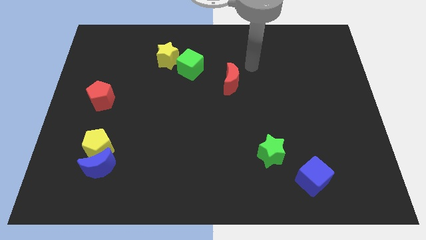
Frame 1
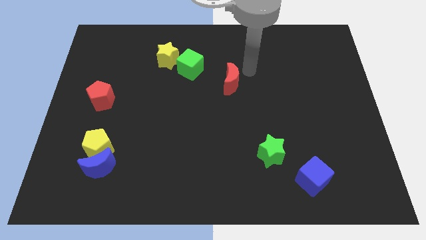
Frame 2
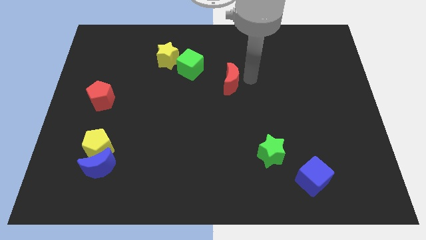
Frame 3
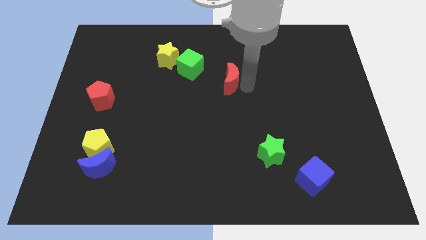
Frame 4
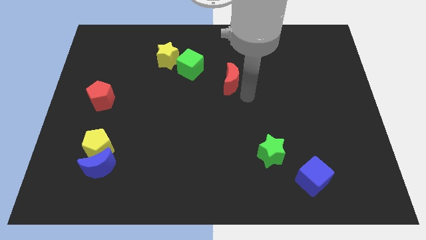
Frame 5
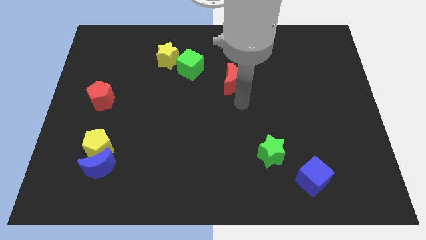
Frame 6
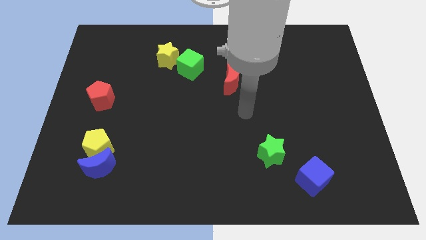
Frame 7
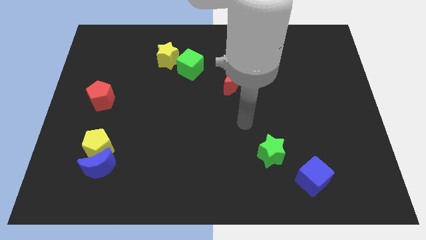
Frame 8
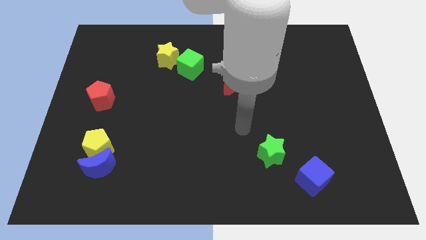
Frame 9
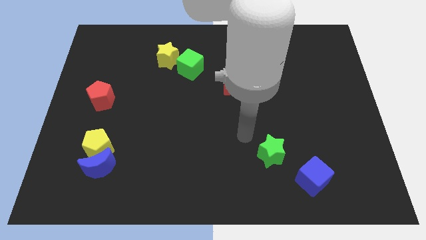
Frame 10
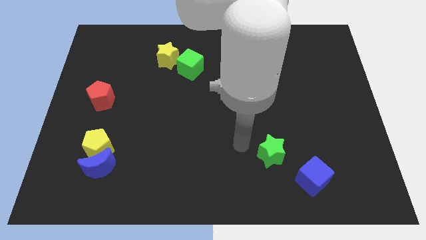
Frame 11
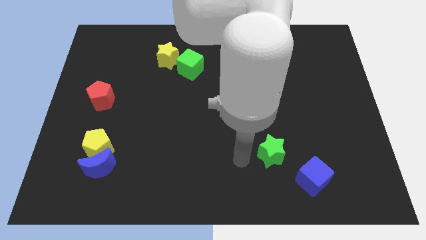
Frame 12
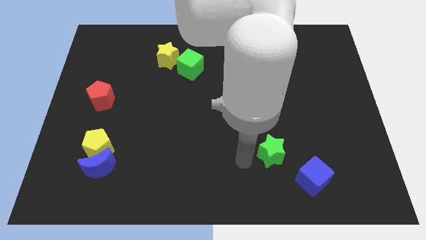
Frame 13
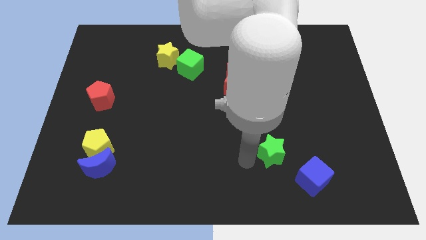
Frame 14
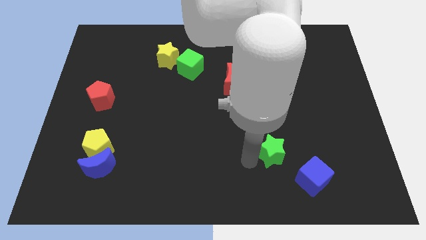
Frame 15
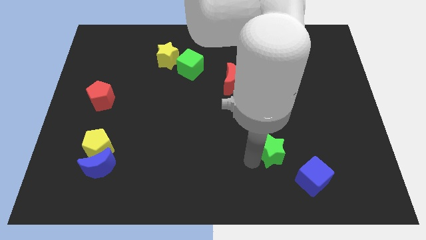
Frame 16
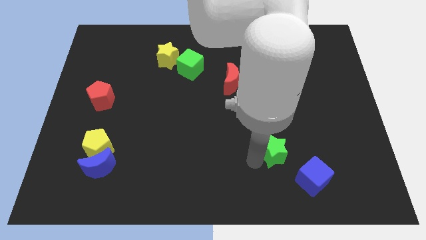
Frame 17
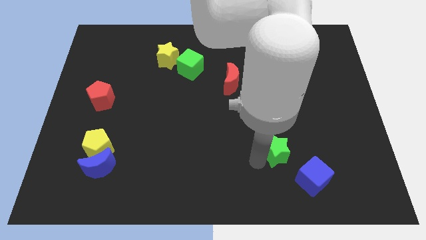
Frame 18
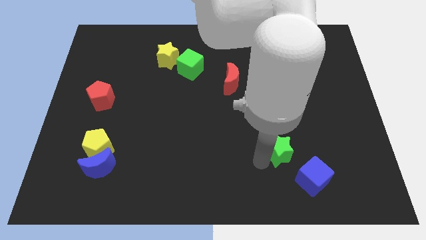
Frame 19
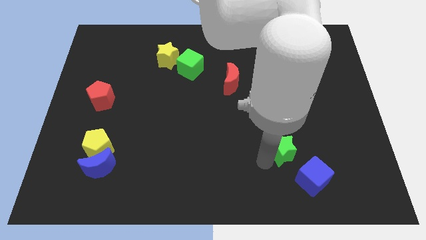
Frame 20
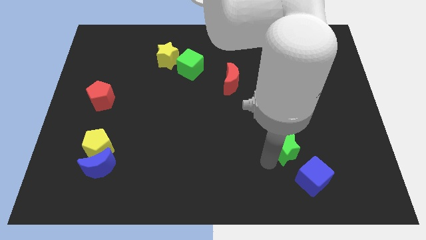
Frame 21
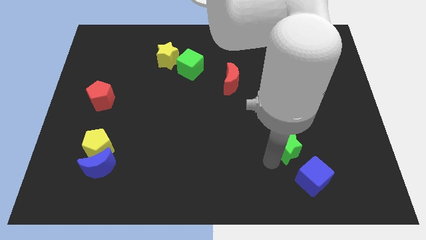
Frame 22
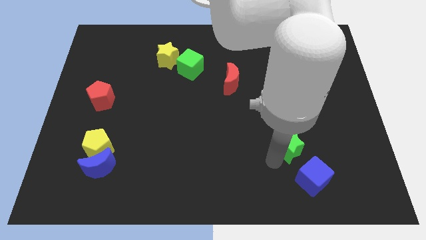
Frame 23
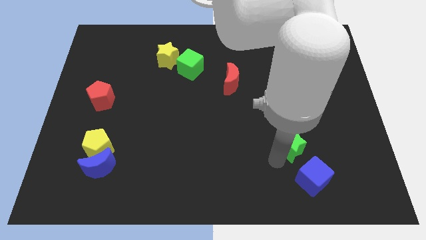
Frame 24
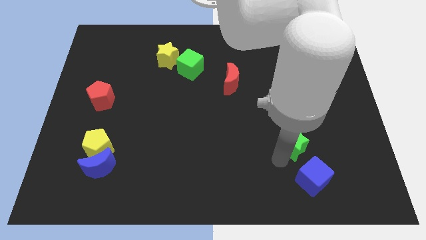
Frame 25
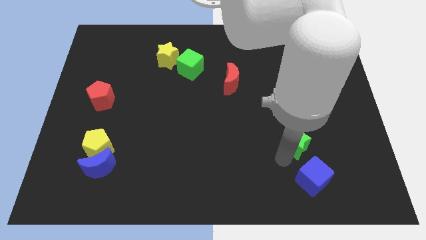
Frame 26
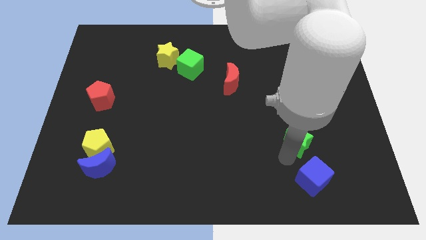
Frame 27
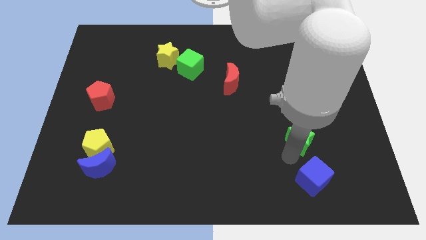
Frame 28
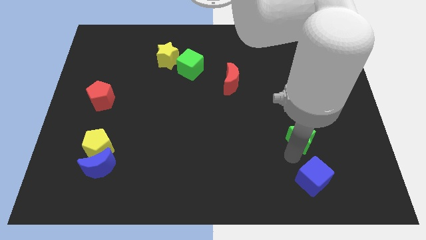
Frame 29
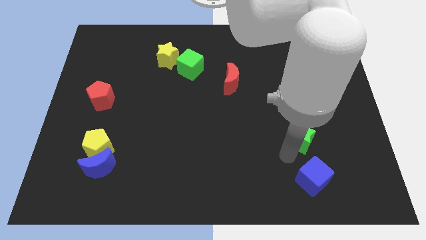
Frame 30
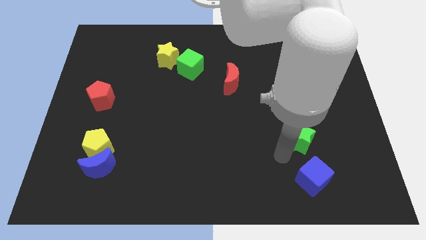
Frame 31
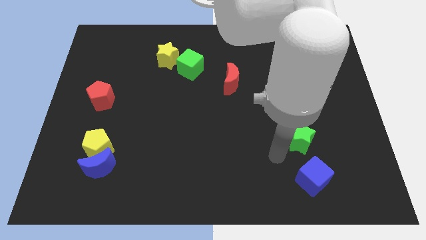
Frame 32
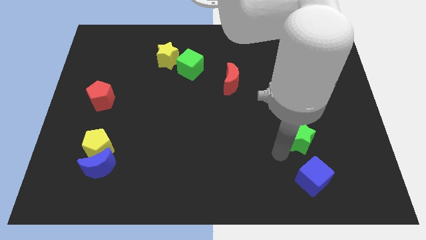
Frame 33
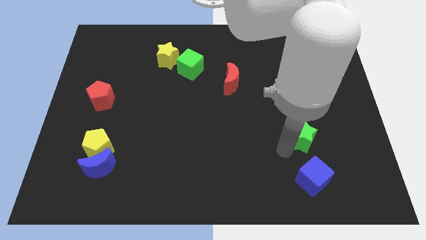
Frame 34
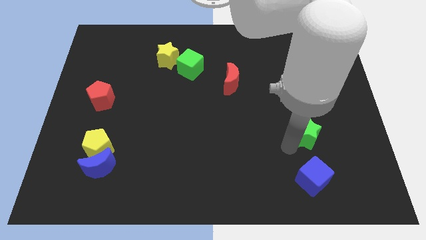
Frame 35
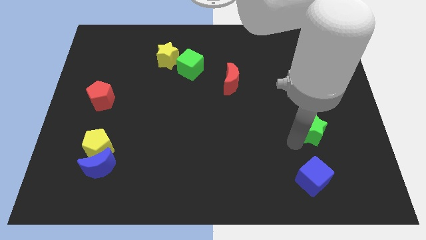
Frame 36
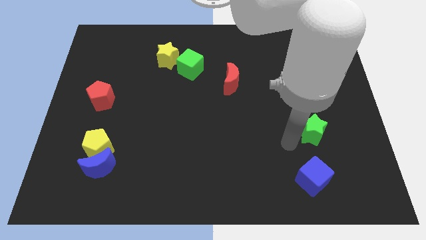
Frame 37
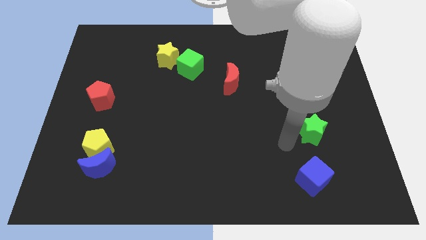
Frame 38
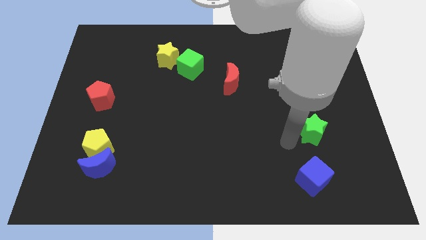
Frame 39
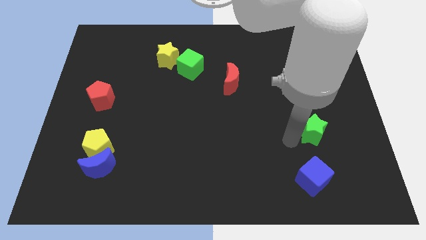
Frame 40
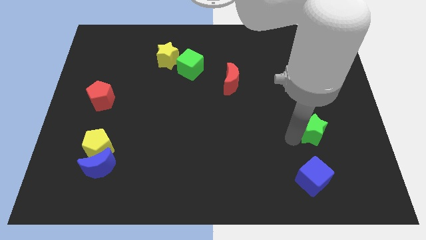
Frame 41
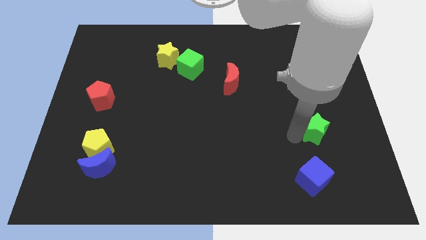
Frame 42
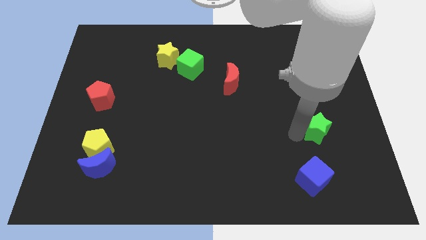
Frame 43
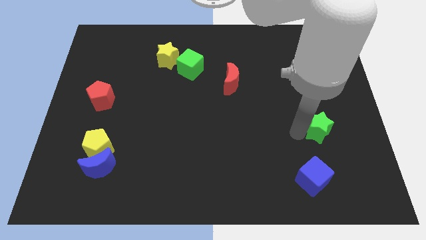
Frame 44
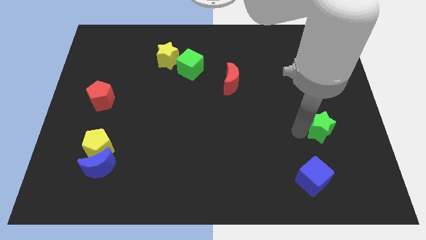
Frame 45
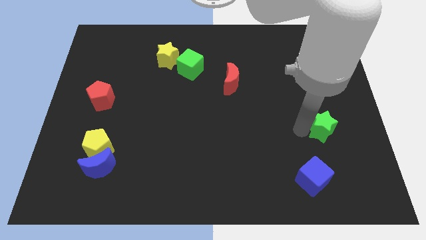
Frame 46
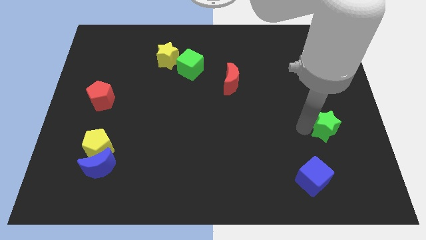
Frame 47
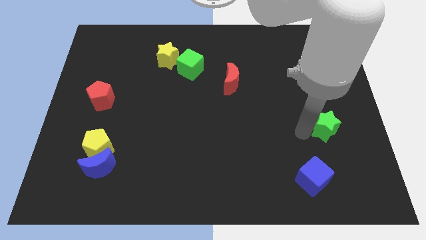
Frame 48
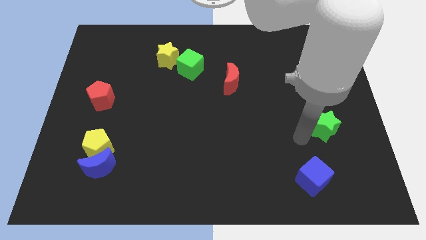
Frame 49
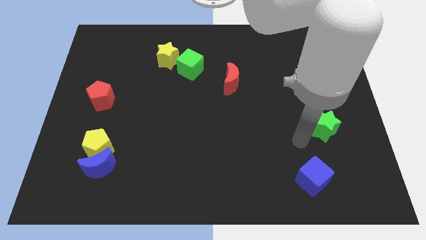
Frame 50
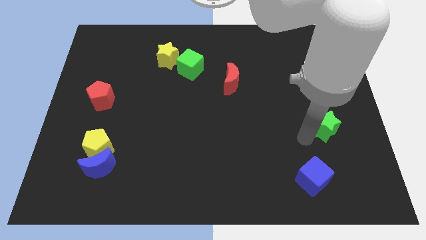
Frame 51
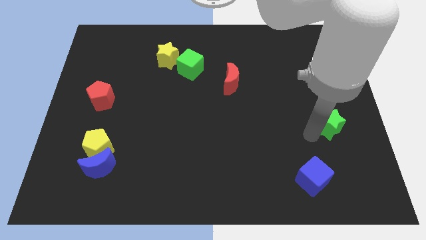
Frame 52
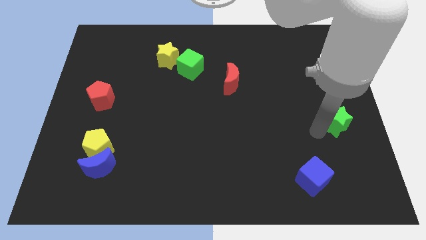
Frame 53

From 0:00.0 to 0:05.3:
push the green star to the right side of the board
